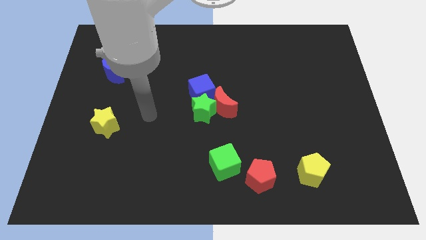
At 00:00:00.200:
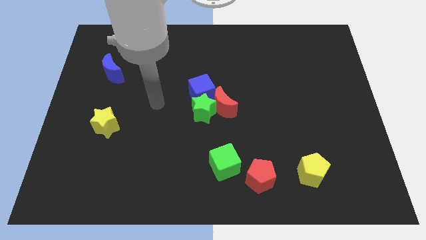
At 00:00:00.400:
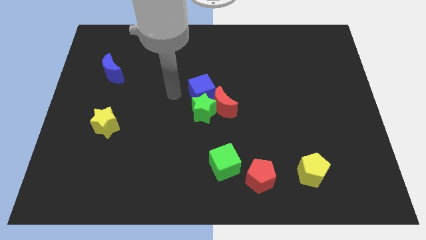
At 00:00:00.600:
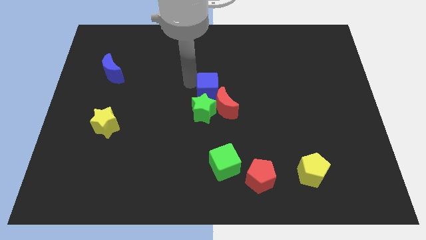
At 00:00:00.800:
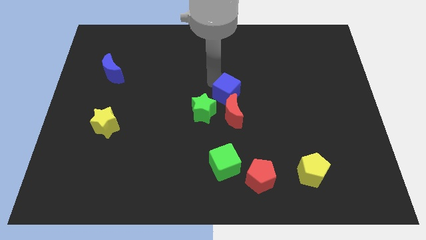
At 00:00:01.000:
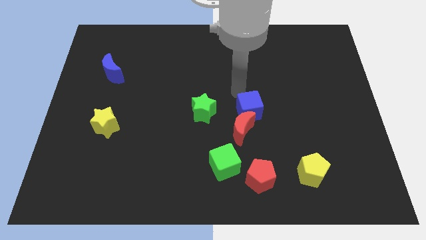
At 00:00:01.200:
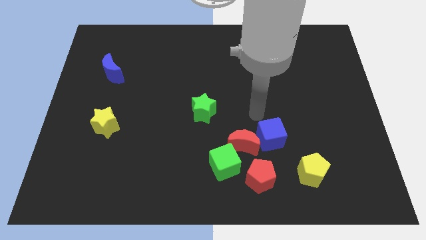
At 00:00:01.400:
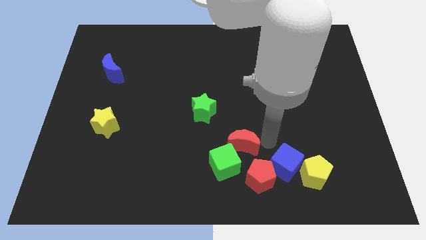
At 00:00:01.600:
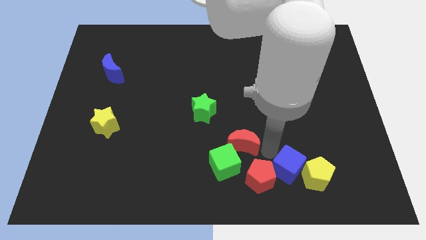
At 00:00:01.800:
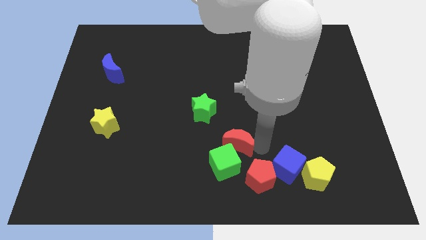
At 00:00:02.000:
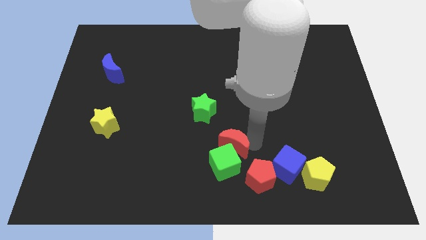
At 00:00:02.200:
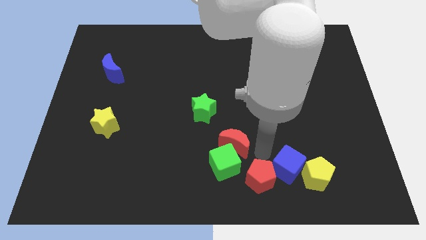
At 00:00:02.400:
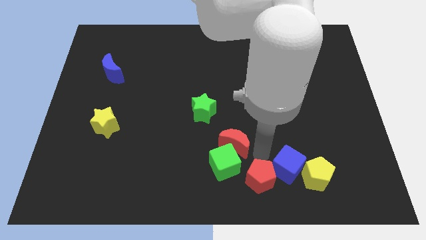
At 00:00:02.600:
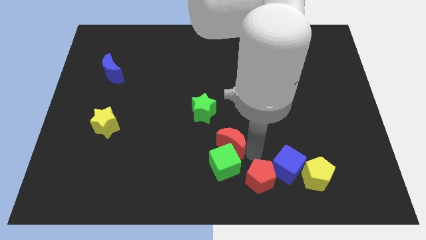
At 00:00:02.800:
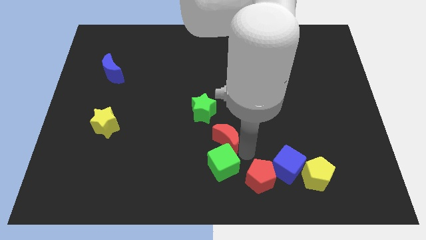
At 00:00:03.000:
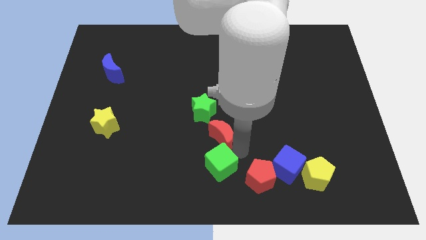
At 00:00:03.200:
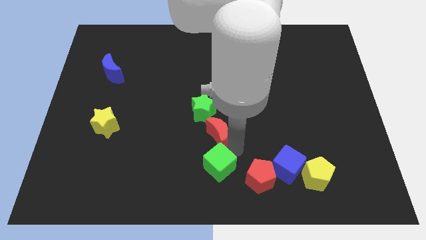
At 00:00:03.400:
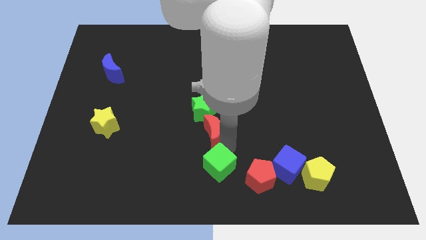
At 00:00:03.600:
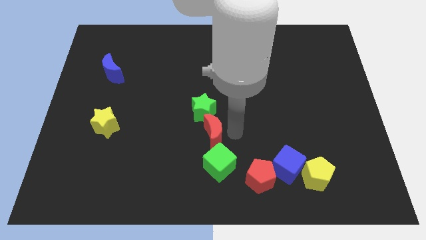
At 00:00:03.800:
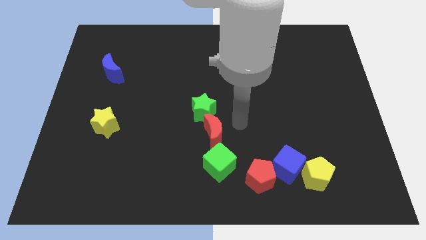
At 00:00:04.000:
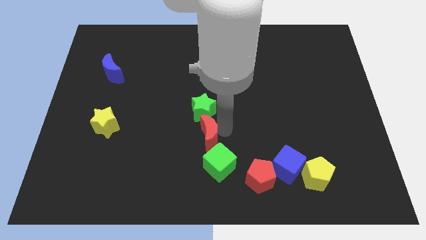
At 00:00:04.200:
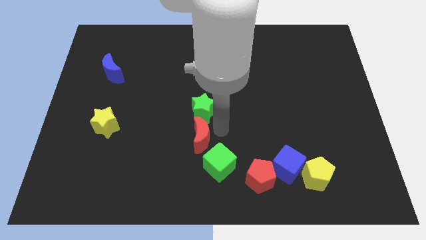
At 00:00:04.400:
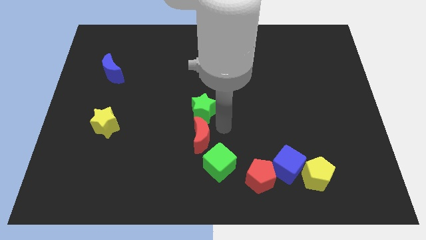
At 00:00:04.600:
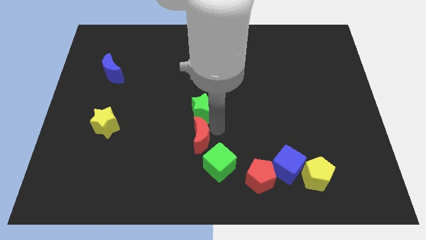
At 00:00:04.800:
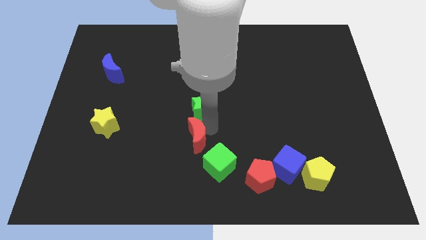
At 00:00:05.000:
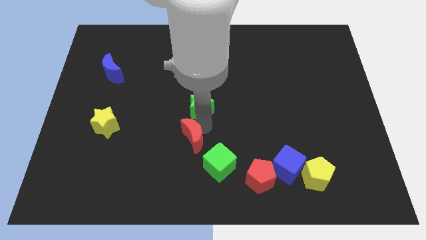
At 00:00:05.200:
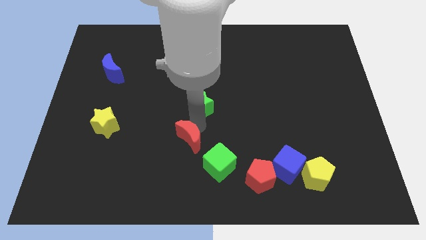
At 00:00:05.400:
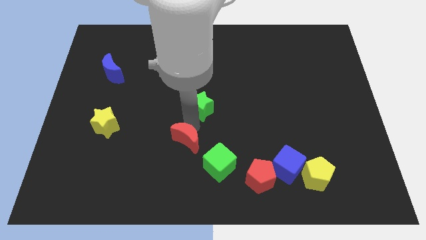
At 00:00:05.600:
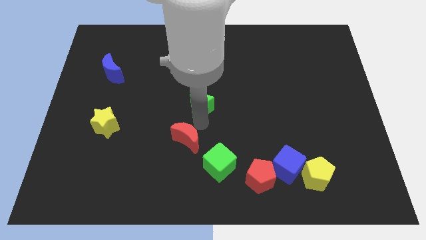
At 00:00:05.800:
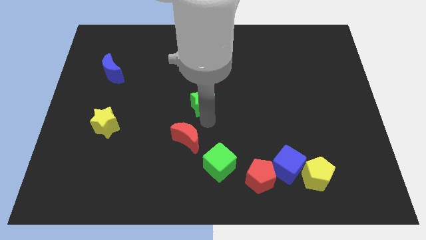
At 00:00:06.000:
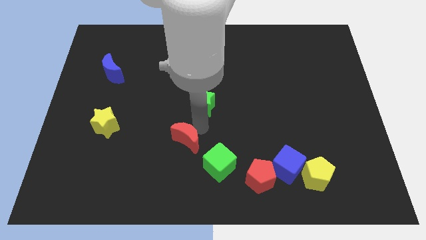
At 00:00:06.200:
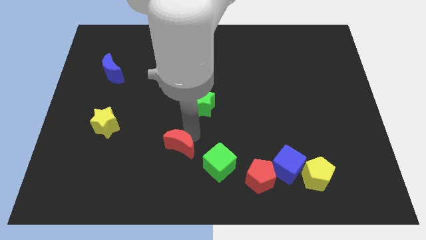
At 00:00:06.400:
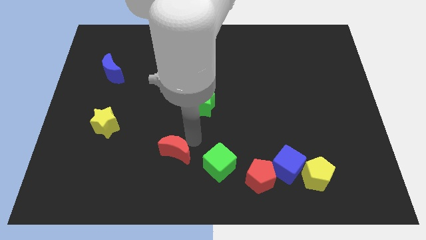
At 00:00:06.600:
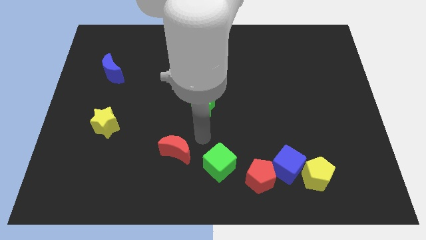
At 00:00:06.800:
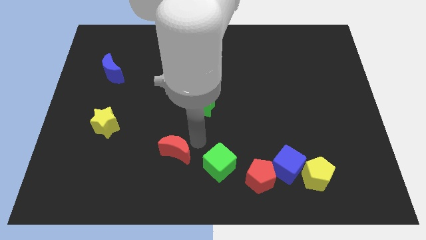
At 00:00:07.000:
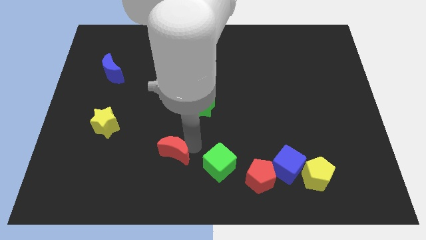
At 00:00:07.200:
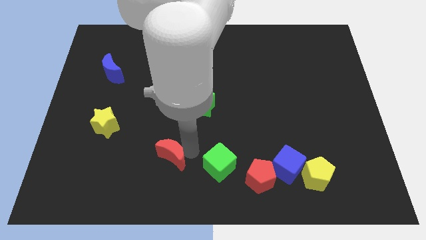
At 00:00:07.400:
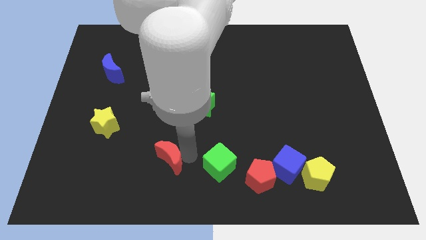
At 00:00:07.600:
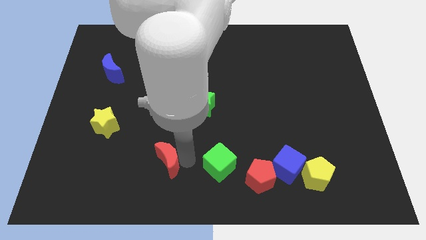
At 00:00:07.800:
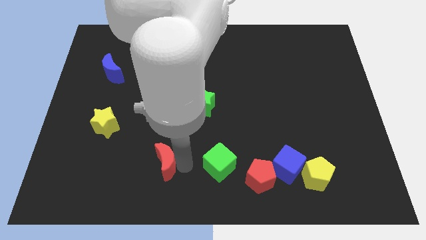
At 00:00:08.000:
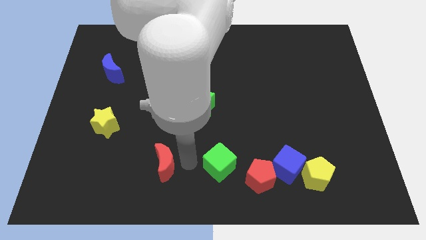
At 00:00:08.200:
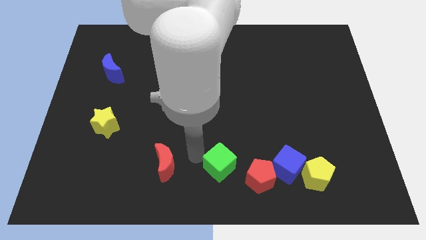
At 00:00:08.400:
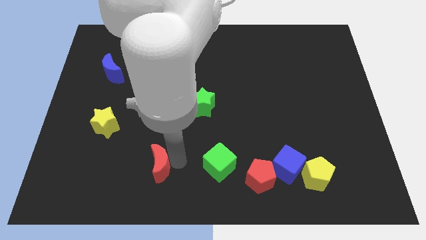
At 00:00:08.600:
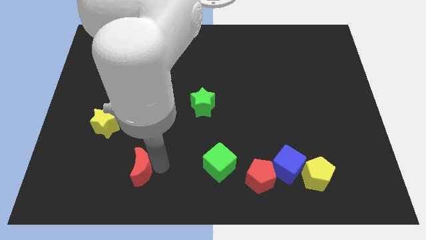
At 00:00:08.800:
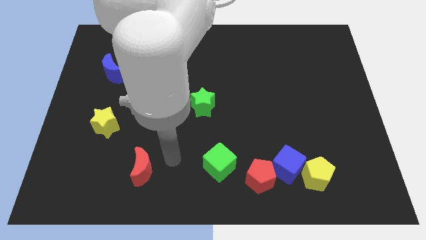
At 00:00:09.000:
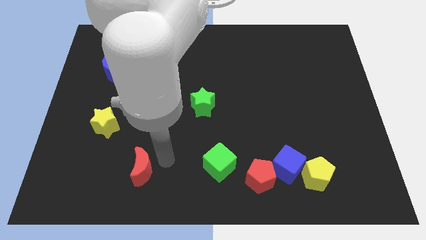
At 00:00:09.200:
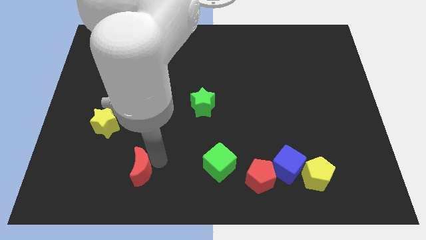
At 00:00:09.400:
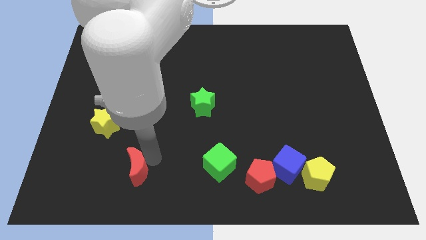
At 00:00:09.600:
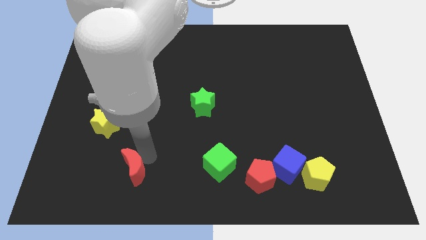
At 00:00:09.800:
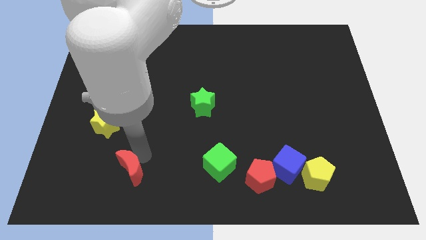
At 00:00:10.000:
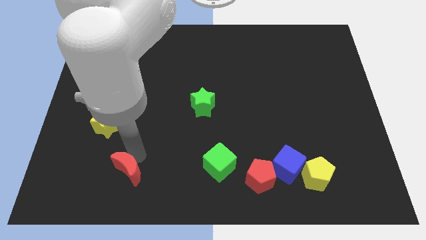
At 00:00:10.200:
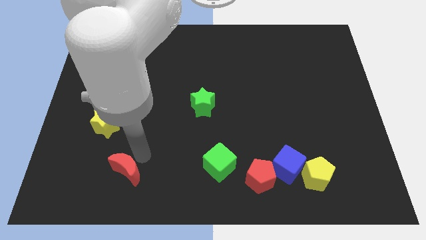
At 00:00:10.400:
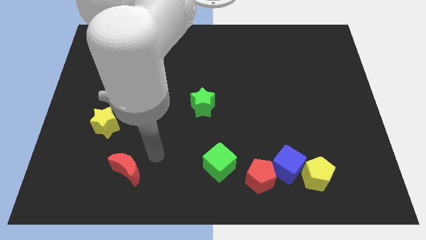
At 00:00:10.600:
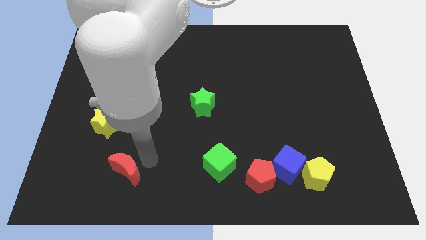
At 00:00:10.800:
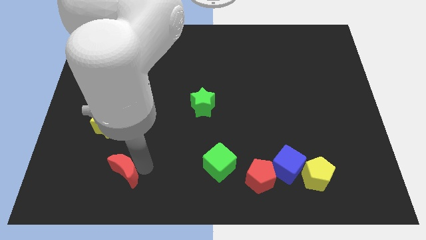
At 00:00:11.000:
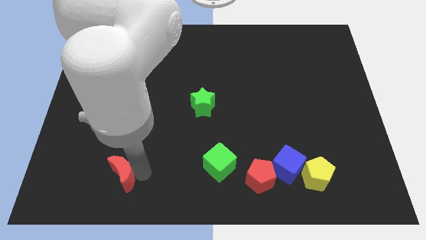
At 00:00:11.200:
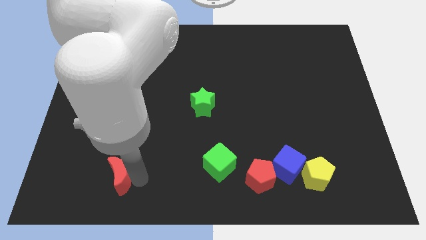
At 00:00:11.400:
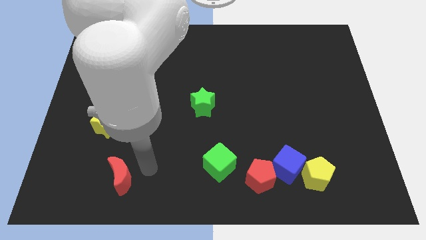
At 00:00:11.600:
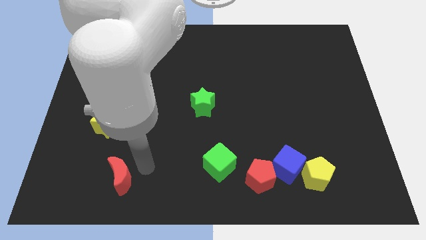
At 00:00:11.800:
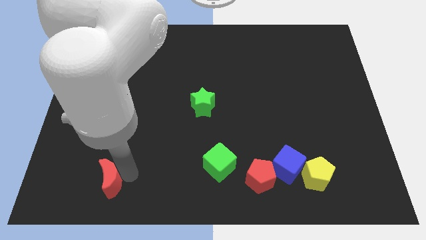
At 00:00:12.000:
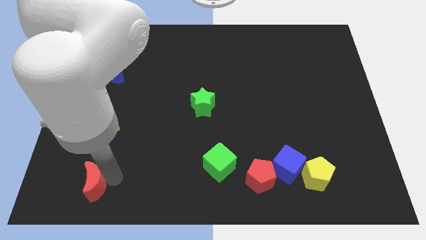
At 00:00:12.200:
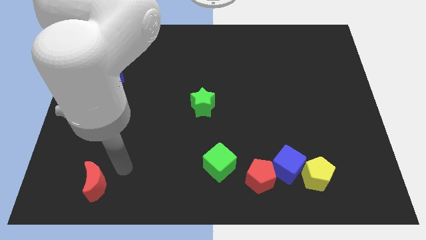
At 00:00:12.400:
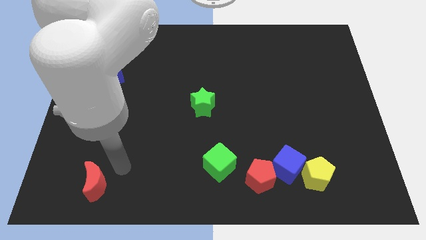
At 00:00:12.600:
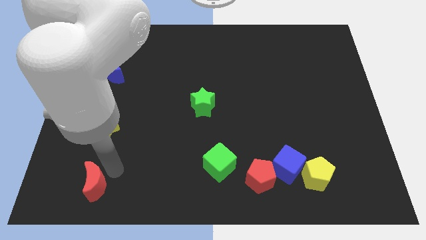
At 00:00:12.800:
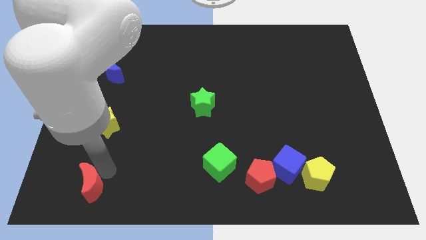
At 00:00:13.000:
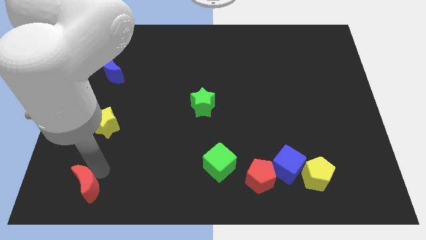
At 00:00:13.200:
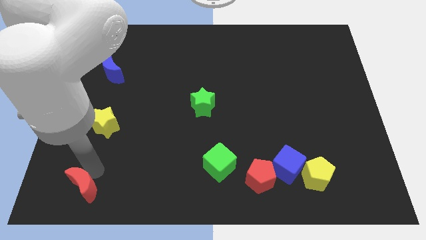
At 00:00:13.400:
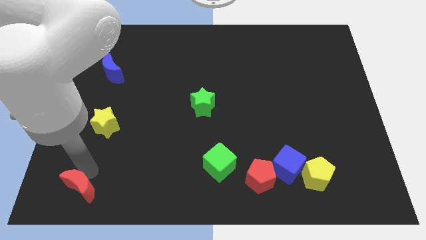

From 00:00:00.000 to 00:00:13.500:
move the red moon to the bottom left corner
